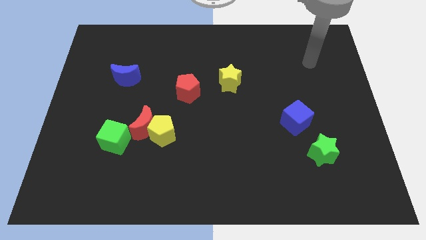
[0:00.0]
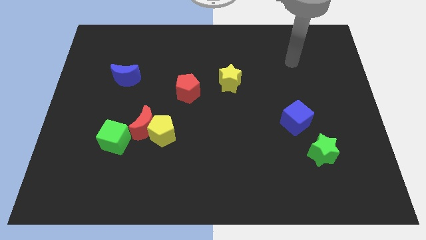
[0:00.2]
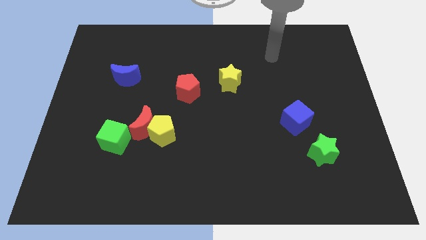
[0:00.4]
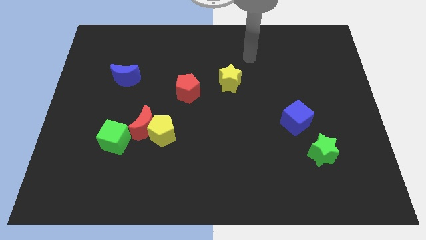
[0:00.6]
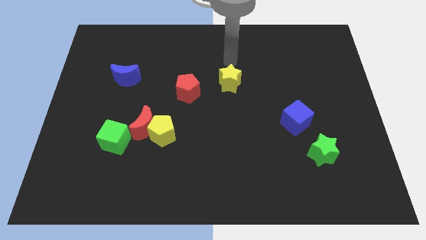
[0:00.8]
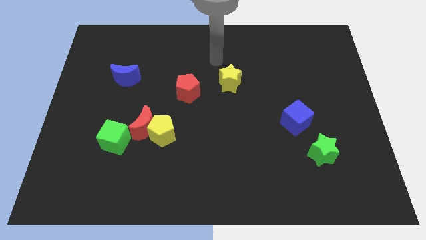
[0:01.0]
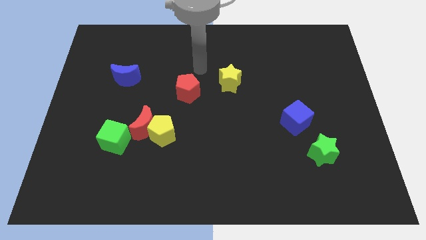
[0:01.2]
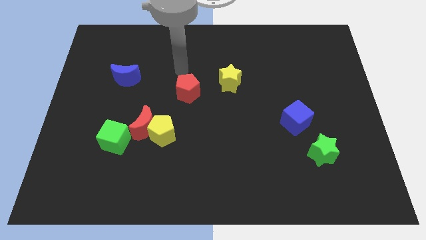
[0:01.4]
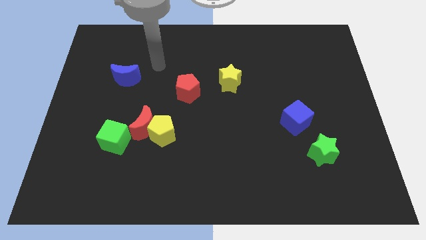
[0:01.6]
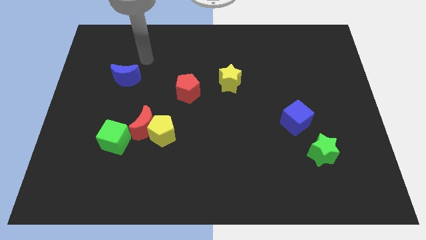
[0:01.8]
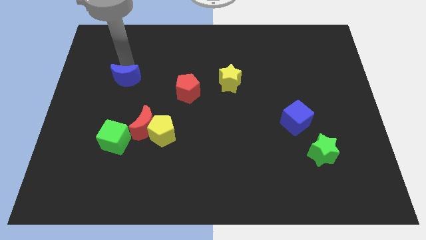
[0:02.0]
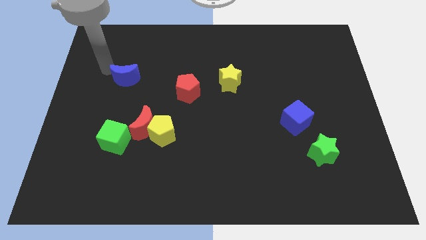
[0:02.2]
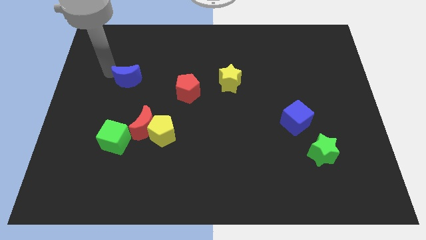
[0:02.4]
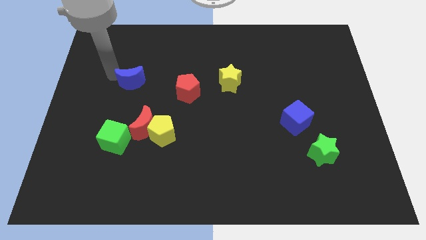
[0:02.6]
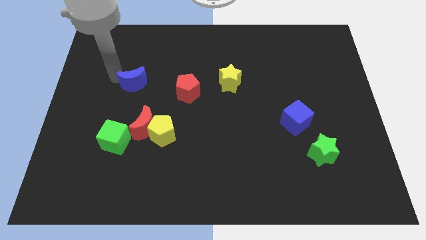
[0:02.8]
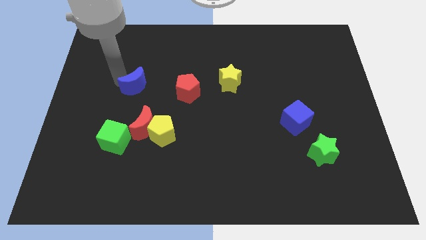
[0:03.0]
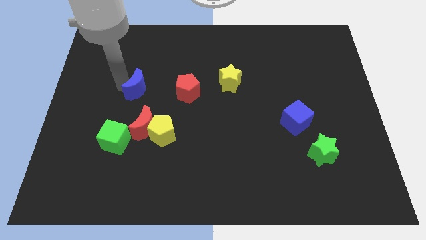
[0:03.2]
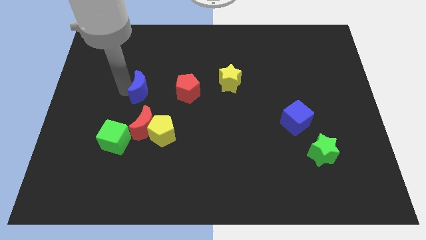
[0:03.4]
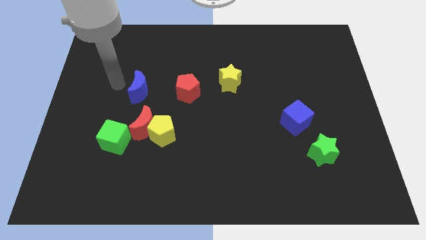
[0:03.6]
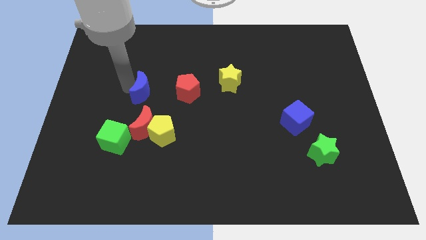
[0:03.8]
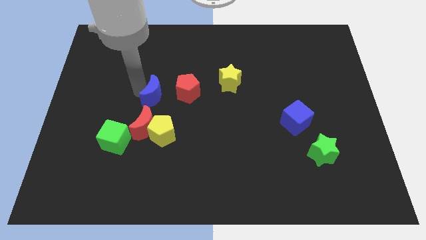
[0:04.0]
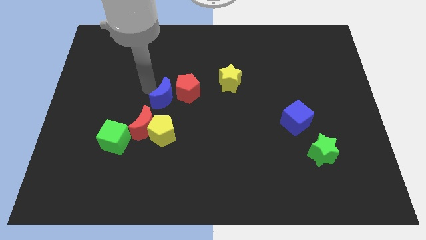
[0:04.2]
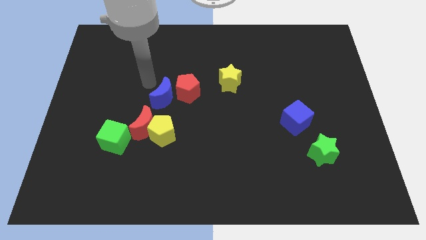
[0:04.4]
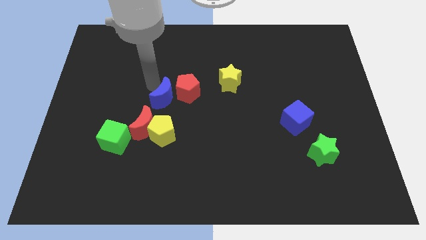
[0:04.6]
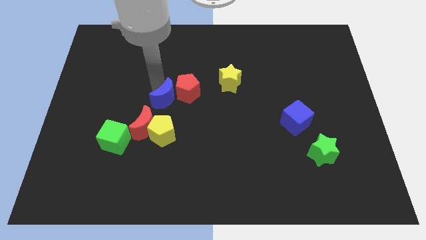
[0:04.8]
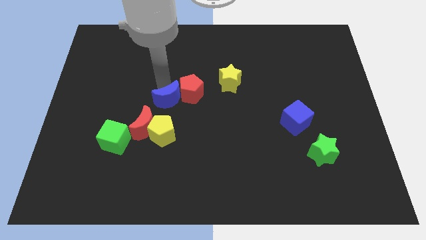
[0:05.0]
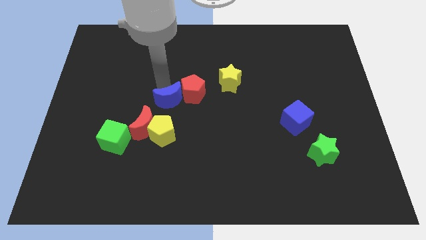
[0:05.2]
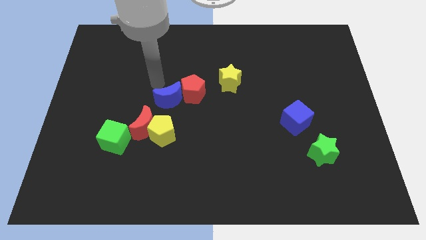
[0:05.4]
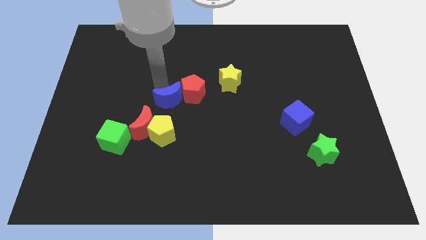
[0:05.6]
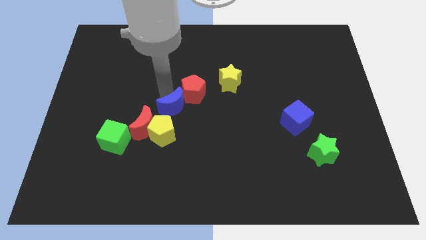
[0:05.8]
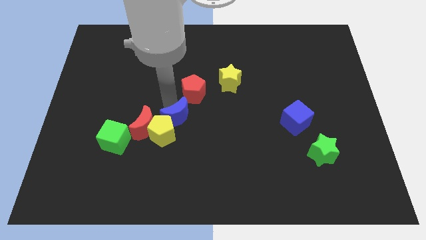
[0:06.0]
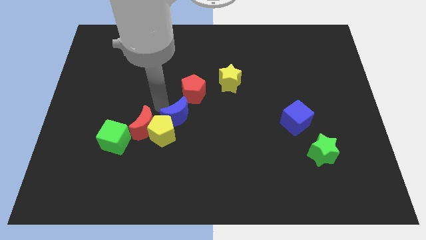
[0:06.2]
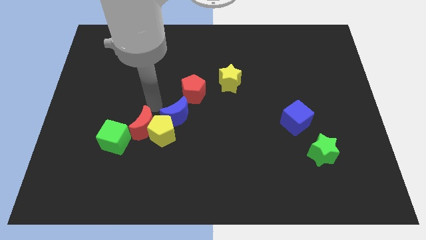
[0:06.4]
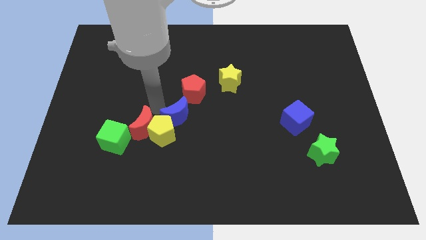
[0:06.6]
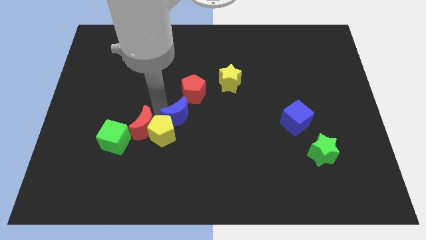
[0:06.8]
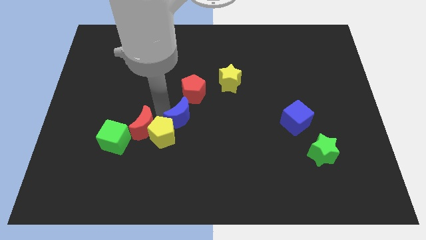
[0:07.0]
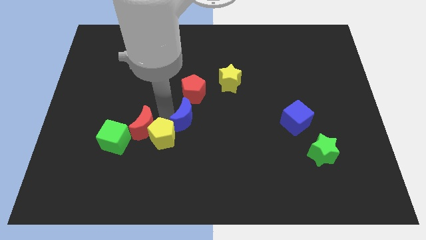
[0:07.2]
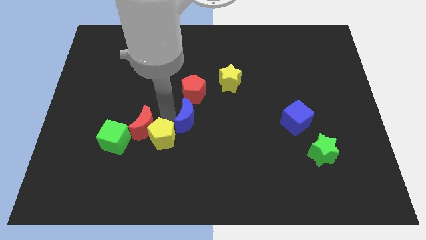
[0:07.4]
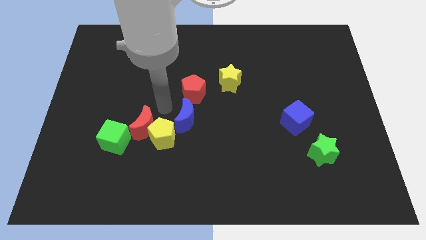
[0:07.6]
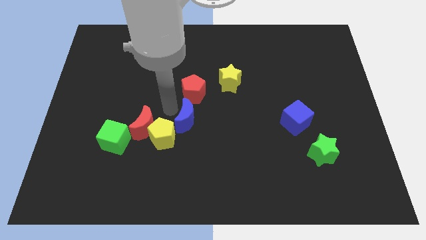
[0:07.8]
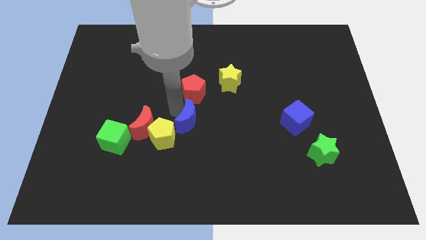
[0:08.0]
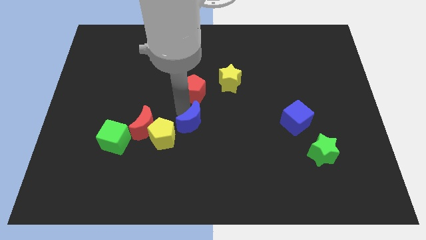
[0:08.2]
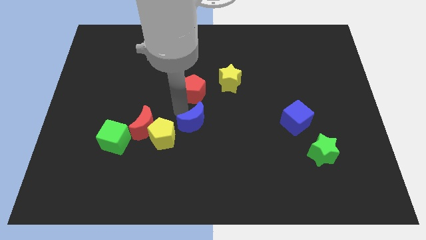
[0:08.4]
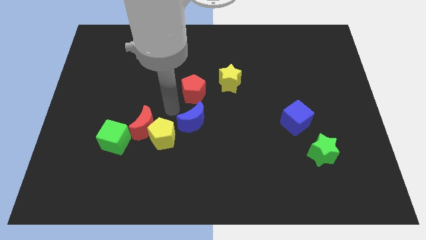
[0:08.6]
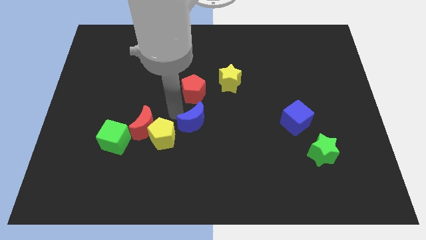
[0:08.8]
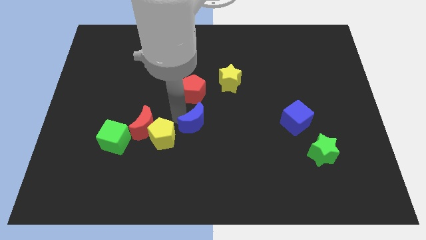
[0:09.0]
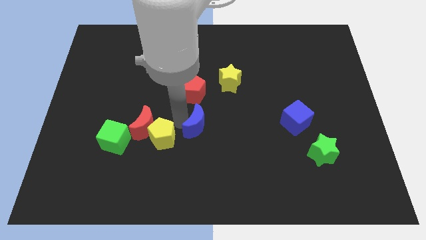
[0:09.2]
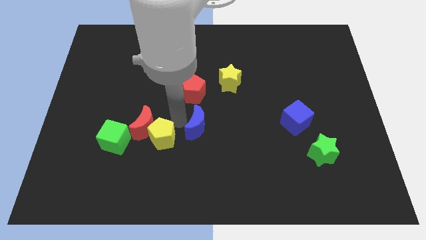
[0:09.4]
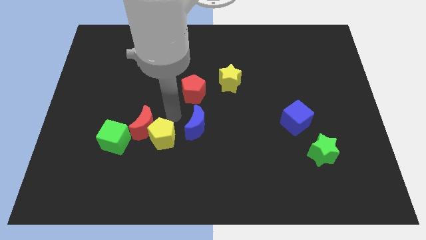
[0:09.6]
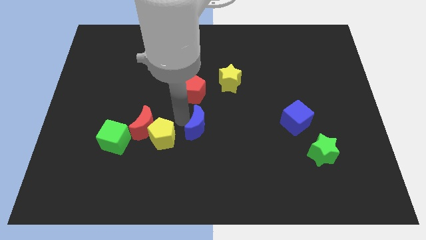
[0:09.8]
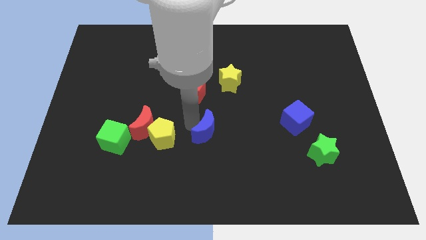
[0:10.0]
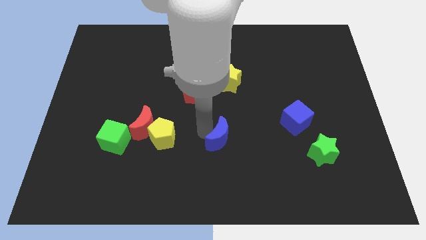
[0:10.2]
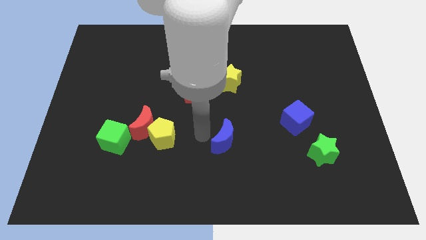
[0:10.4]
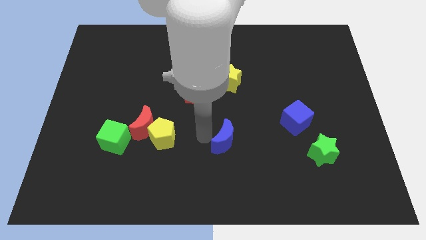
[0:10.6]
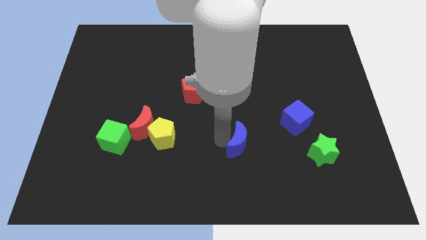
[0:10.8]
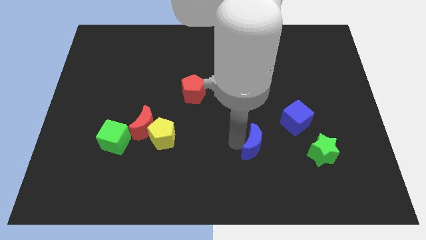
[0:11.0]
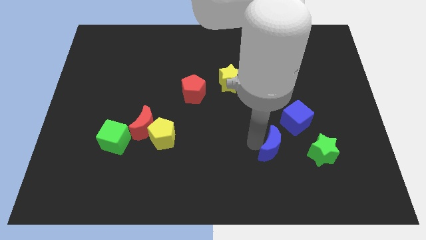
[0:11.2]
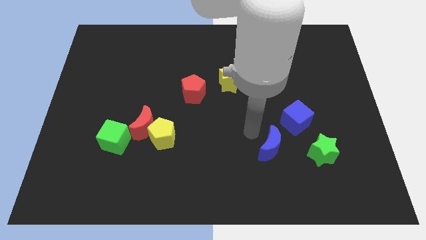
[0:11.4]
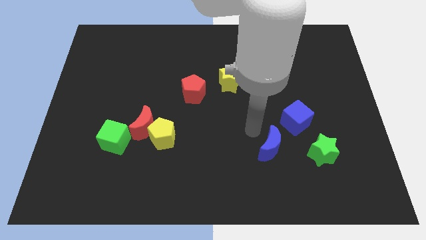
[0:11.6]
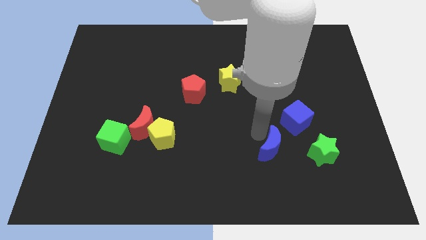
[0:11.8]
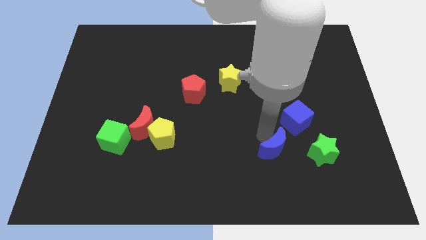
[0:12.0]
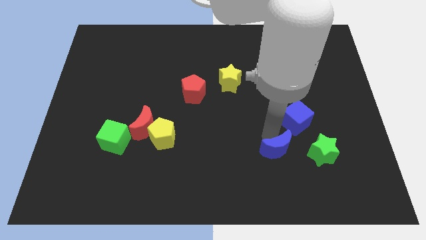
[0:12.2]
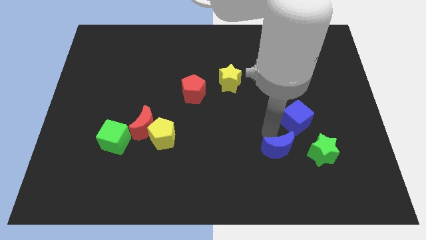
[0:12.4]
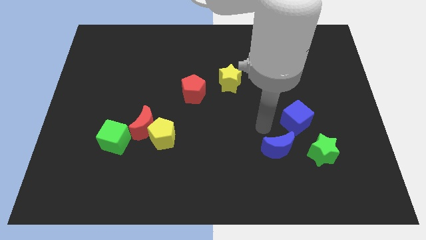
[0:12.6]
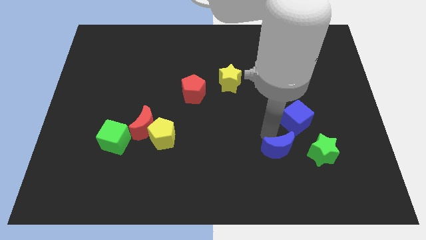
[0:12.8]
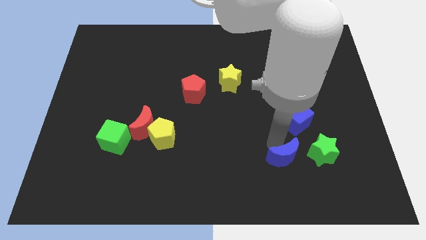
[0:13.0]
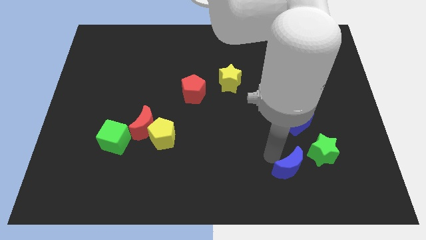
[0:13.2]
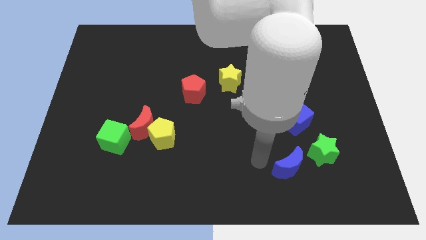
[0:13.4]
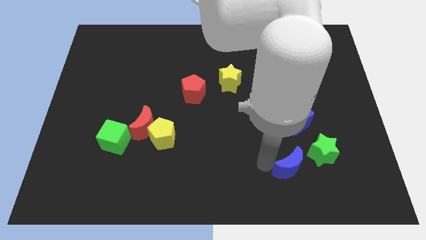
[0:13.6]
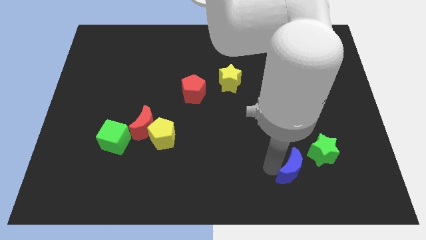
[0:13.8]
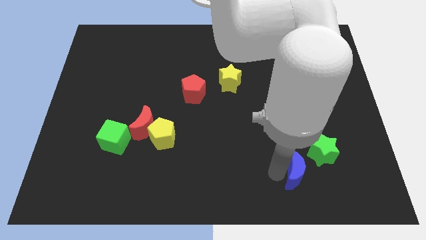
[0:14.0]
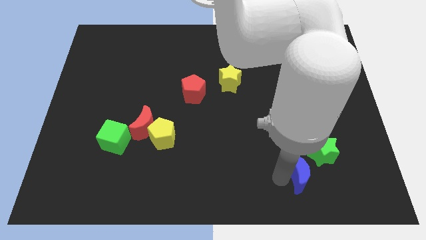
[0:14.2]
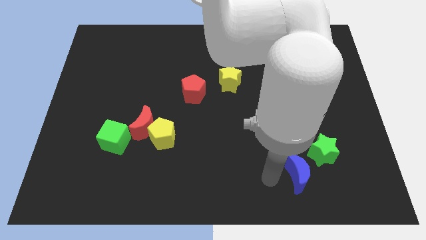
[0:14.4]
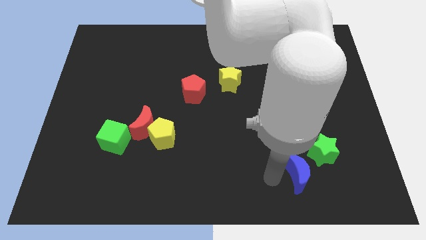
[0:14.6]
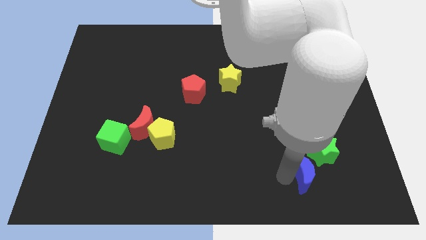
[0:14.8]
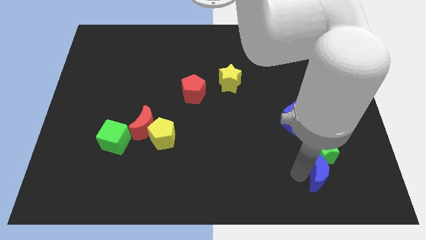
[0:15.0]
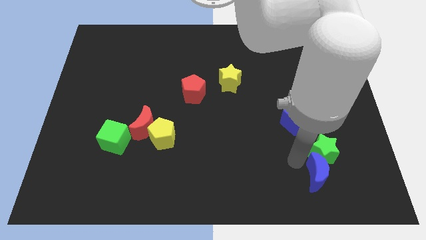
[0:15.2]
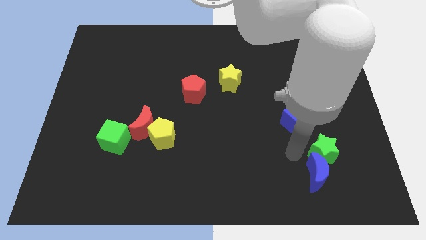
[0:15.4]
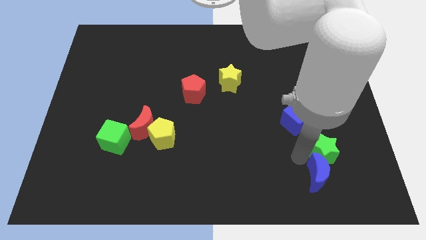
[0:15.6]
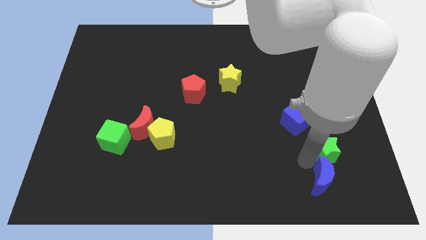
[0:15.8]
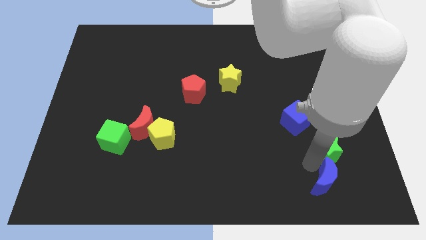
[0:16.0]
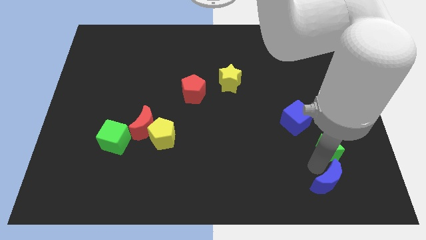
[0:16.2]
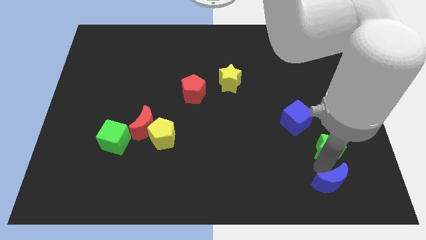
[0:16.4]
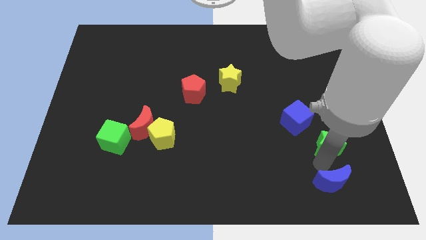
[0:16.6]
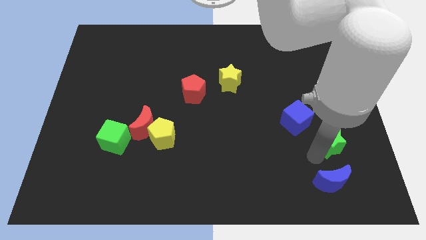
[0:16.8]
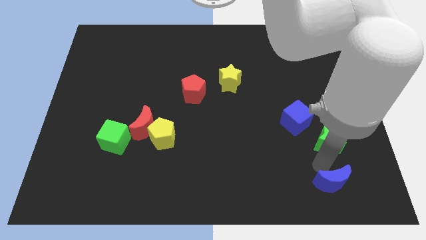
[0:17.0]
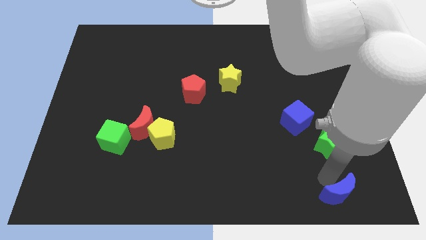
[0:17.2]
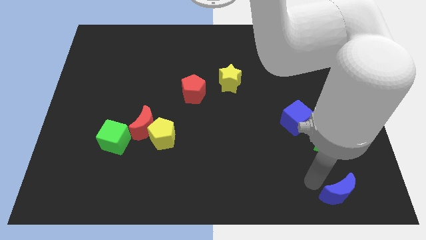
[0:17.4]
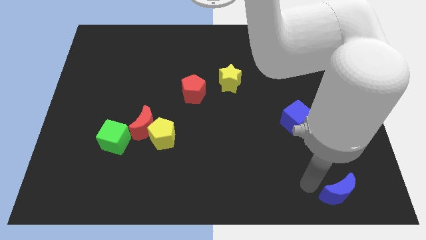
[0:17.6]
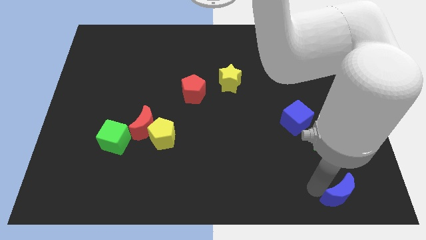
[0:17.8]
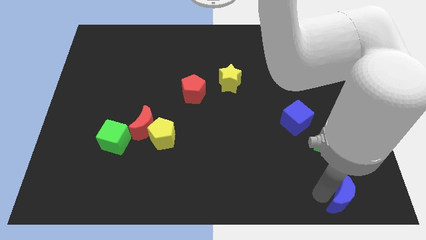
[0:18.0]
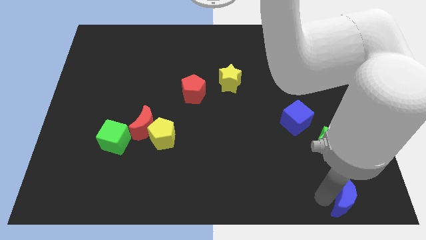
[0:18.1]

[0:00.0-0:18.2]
move the blue moon to the bottom right
